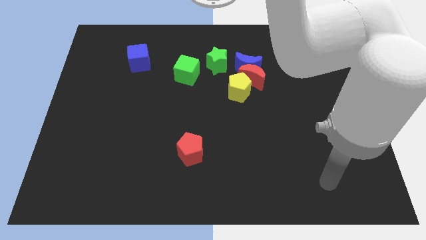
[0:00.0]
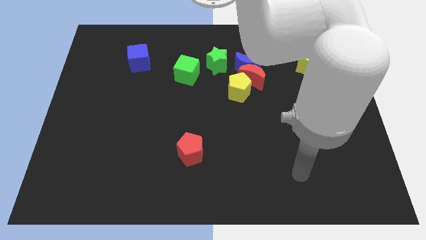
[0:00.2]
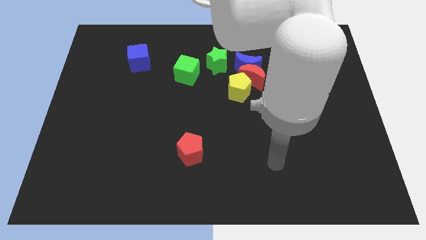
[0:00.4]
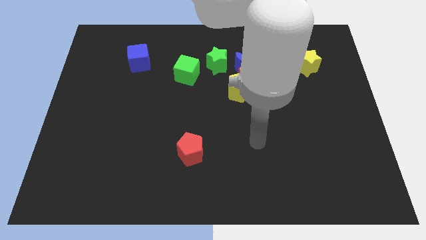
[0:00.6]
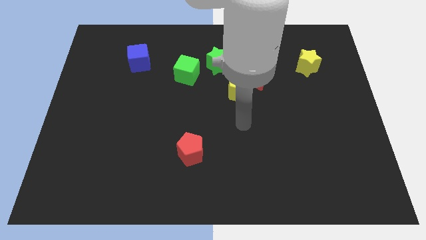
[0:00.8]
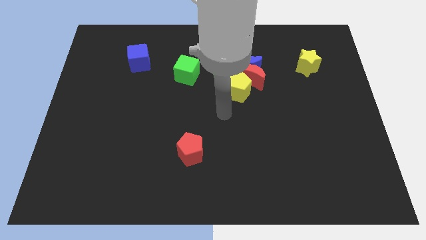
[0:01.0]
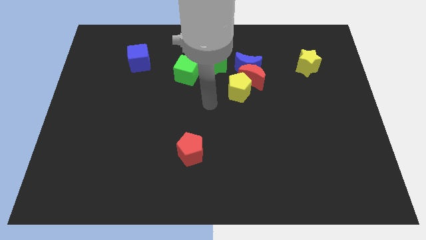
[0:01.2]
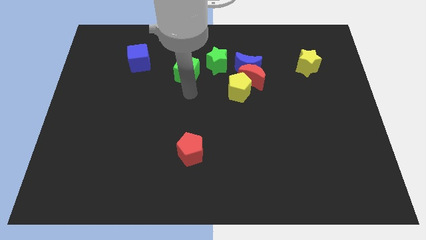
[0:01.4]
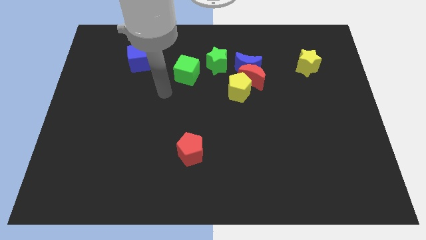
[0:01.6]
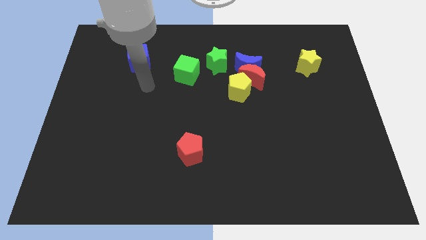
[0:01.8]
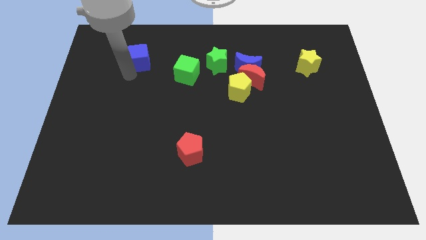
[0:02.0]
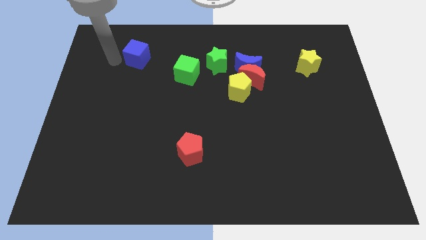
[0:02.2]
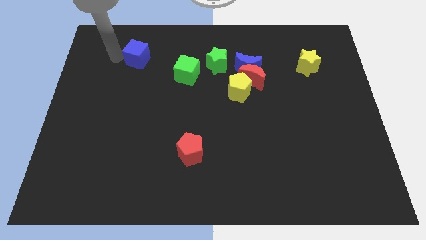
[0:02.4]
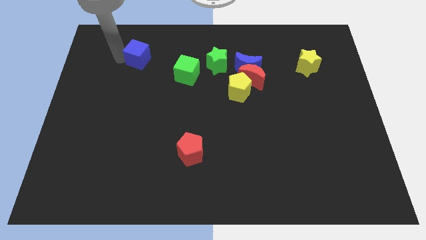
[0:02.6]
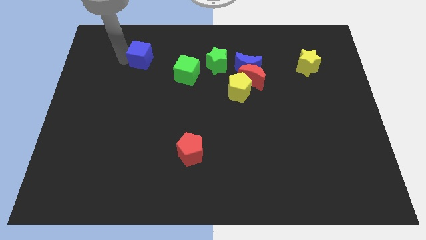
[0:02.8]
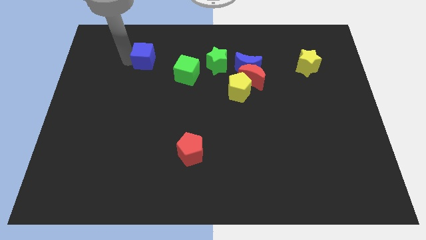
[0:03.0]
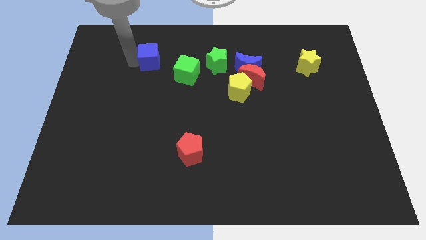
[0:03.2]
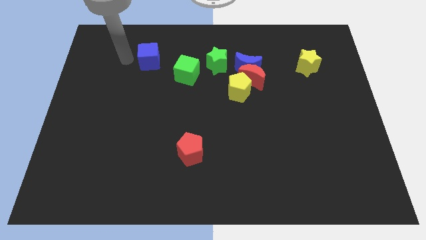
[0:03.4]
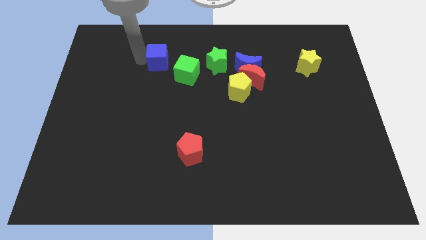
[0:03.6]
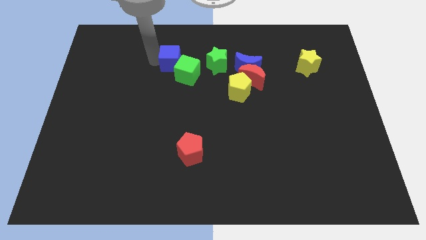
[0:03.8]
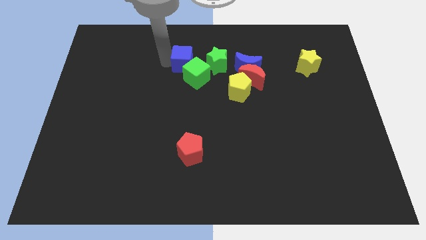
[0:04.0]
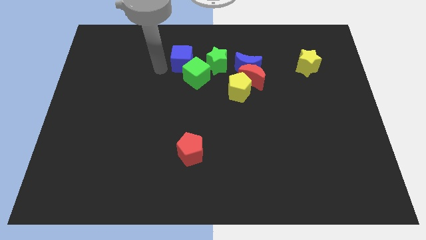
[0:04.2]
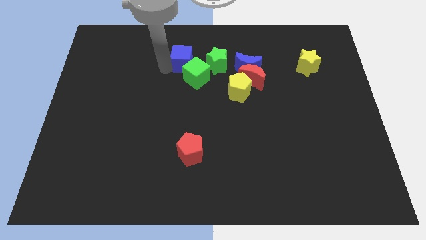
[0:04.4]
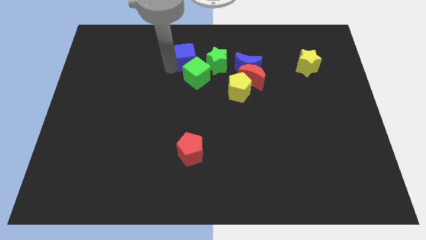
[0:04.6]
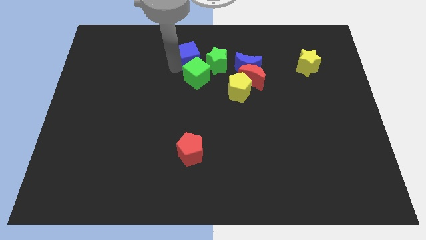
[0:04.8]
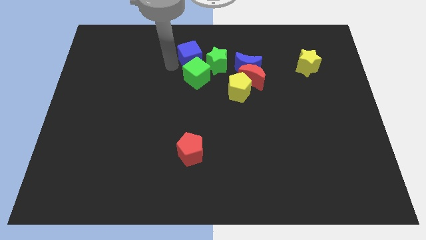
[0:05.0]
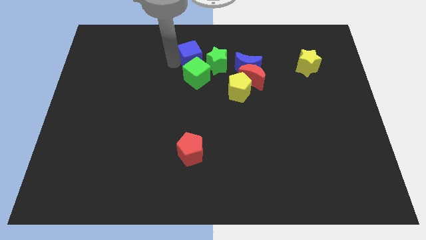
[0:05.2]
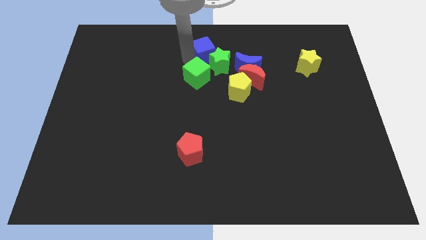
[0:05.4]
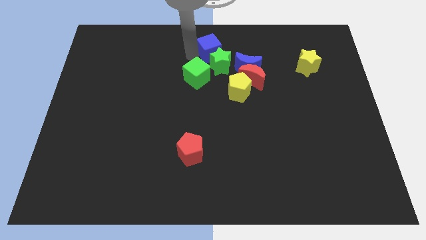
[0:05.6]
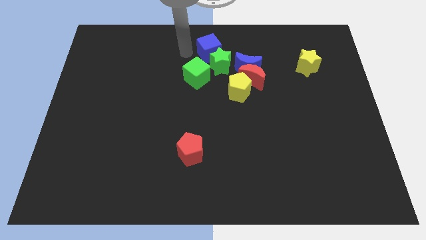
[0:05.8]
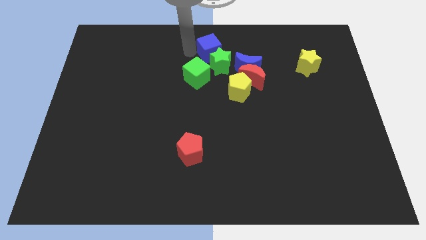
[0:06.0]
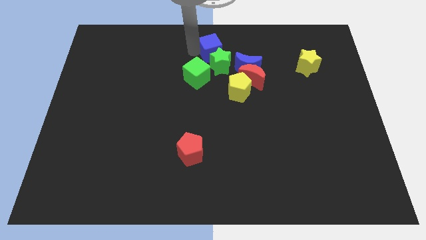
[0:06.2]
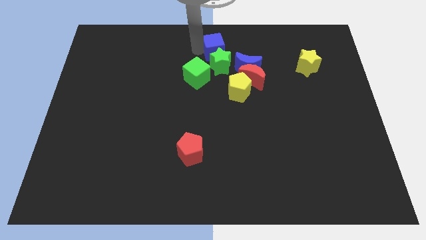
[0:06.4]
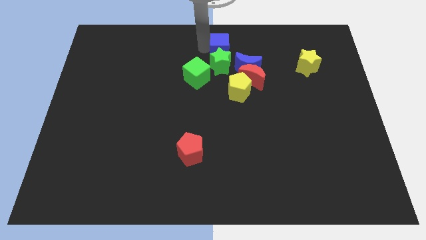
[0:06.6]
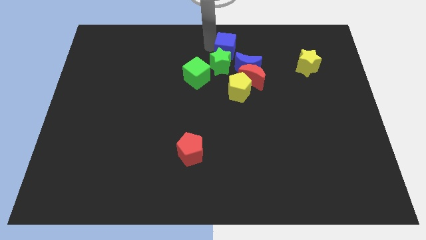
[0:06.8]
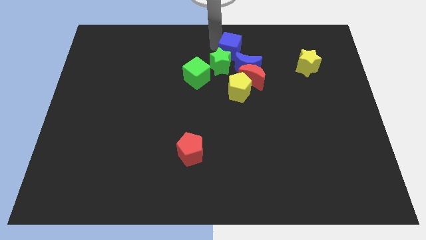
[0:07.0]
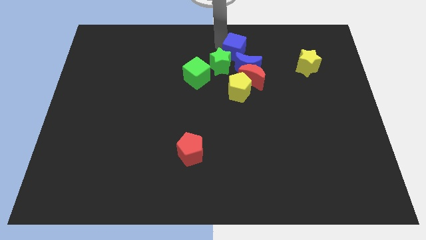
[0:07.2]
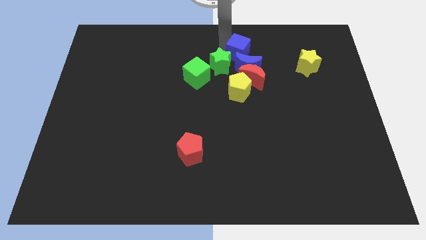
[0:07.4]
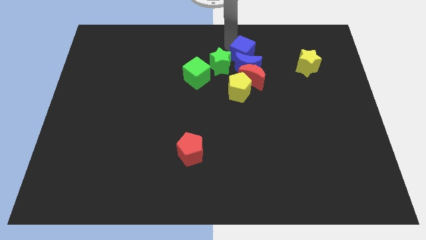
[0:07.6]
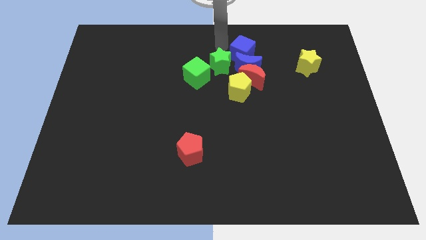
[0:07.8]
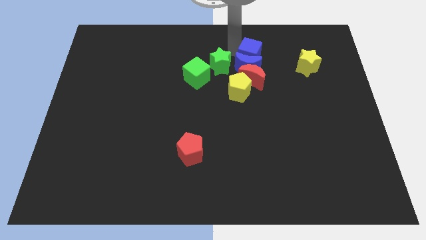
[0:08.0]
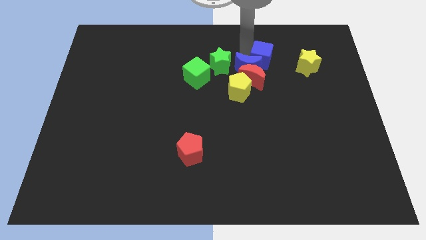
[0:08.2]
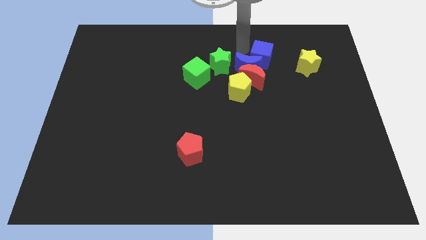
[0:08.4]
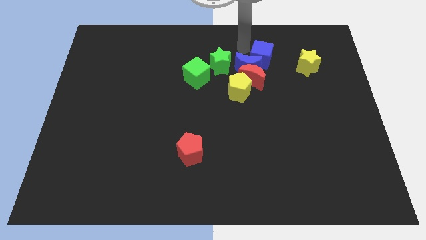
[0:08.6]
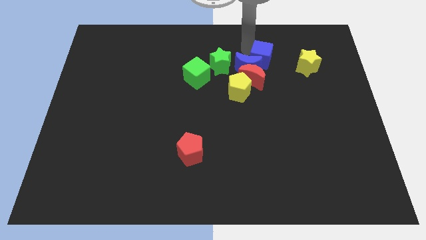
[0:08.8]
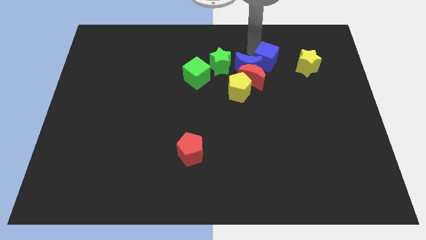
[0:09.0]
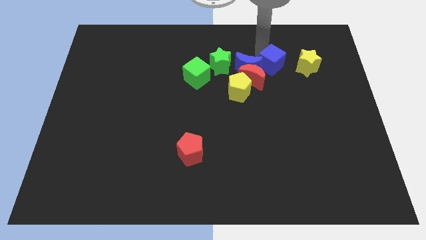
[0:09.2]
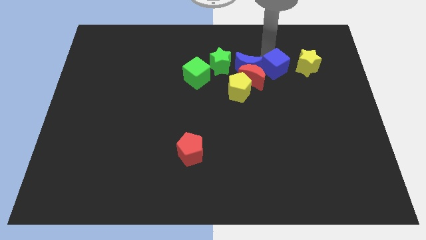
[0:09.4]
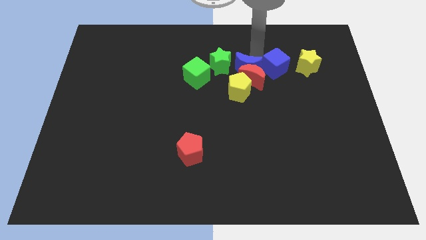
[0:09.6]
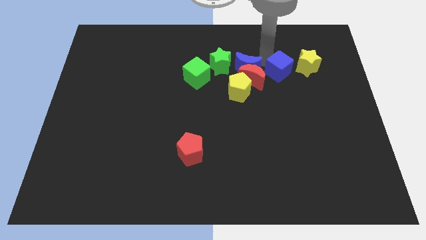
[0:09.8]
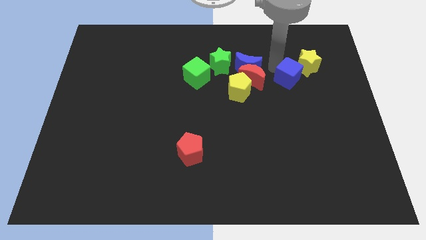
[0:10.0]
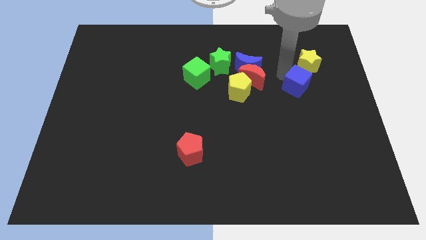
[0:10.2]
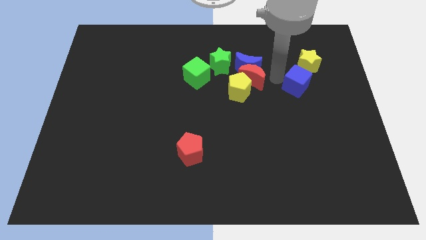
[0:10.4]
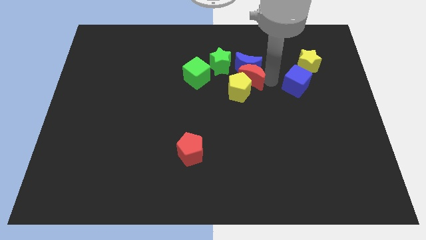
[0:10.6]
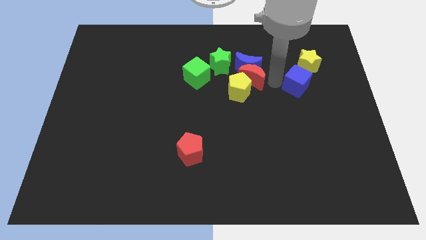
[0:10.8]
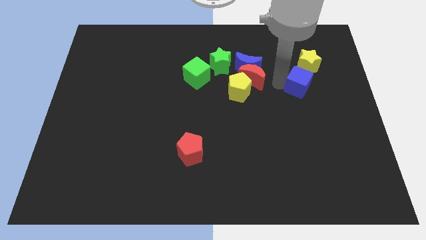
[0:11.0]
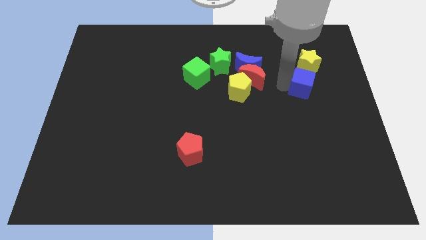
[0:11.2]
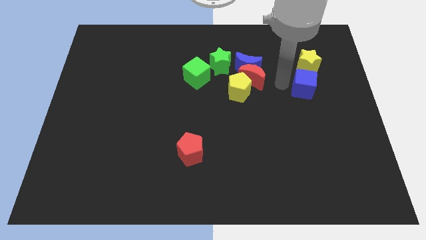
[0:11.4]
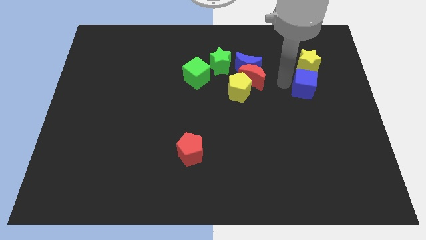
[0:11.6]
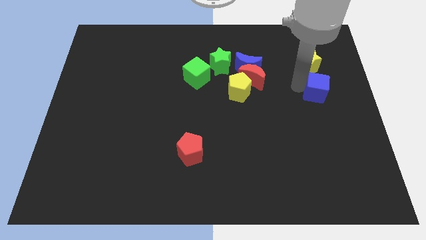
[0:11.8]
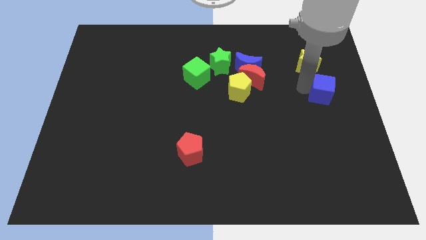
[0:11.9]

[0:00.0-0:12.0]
push the blue cube to the center right
